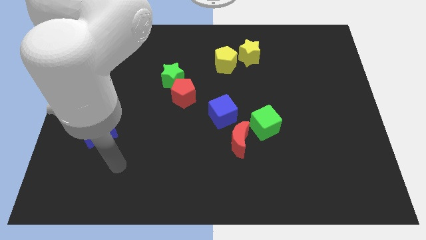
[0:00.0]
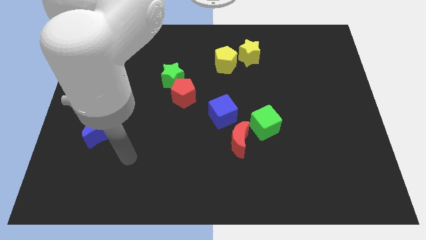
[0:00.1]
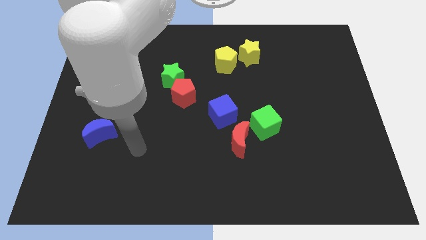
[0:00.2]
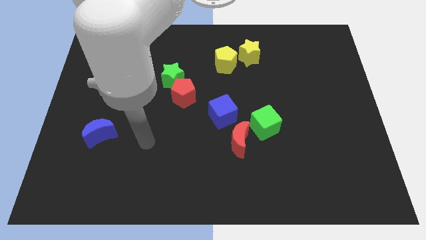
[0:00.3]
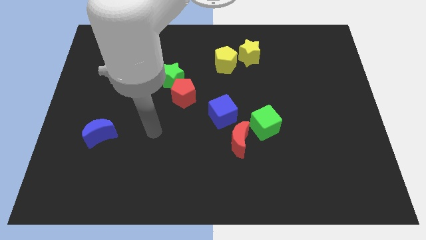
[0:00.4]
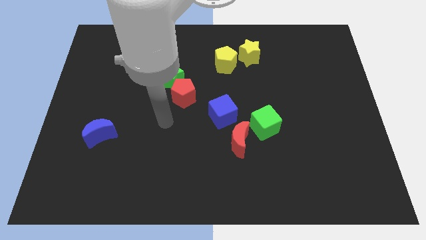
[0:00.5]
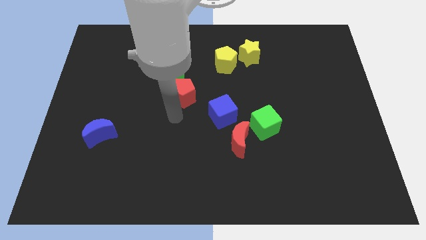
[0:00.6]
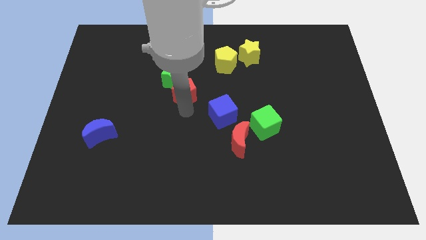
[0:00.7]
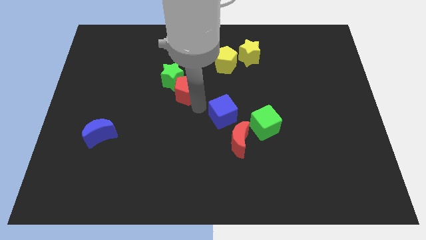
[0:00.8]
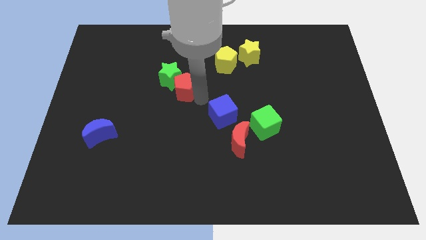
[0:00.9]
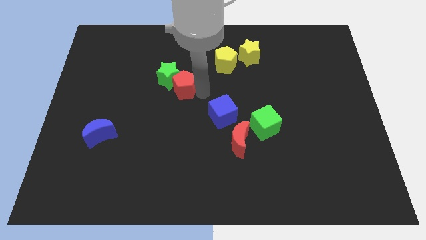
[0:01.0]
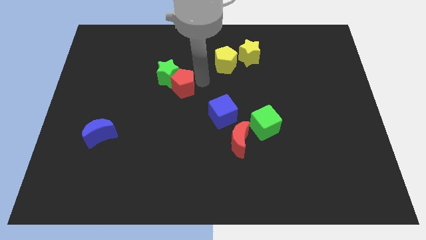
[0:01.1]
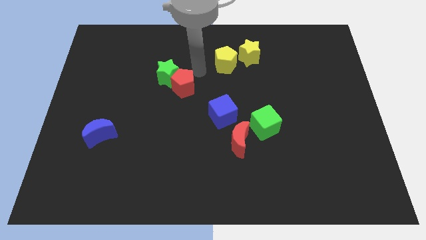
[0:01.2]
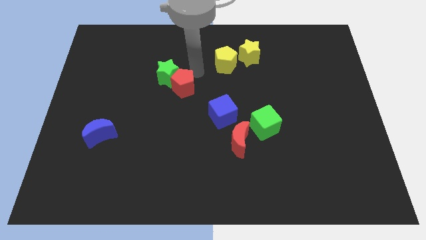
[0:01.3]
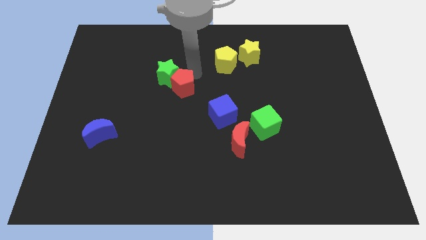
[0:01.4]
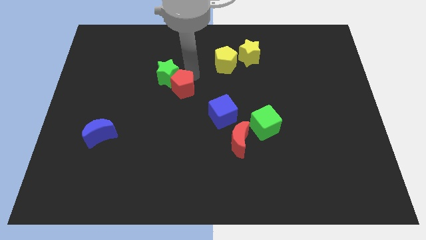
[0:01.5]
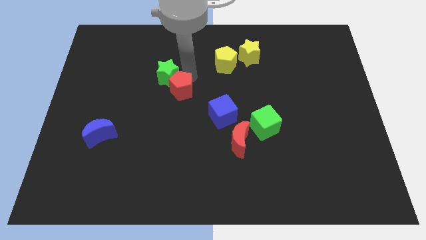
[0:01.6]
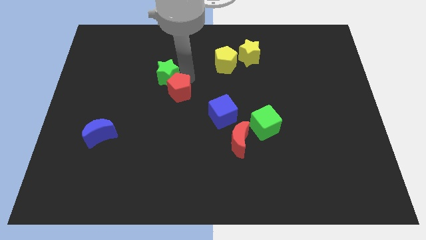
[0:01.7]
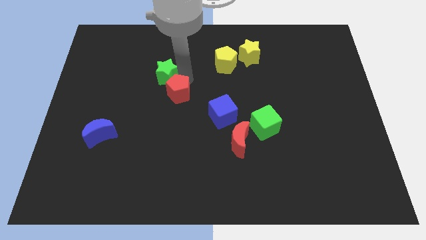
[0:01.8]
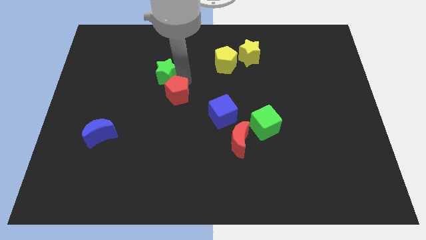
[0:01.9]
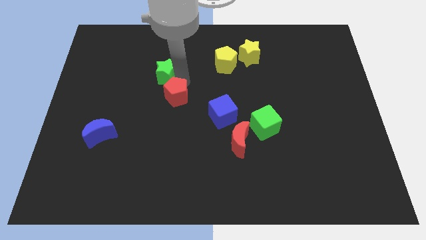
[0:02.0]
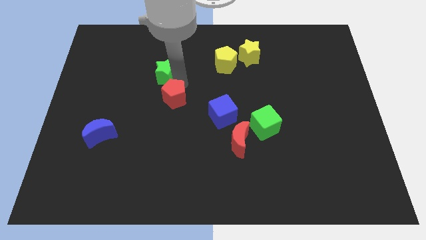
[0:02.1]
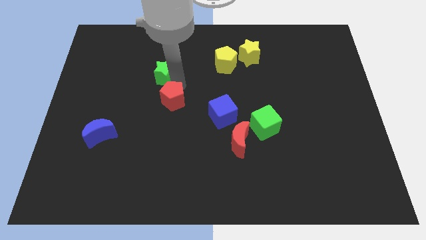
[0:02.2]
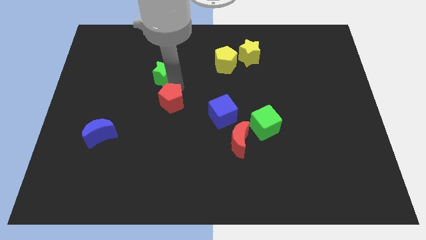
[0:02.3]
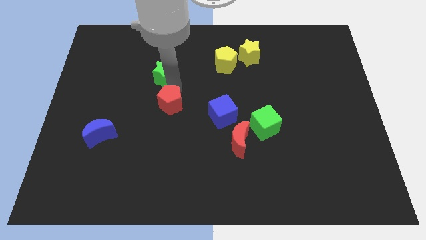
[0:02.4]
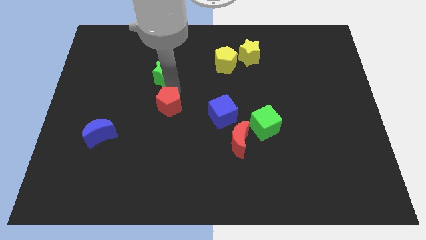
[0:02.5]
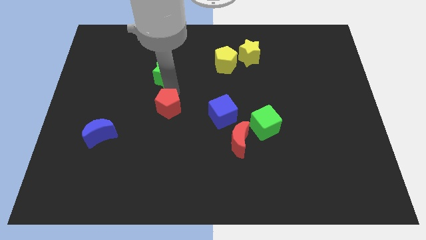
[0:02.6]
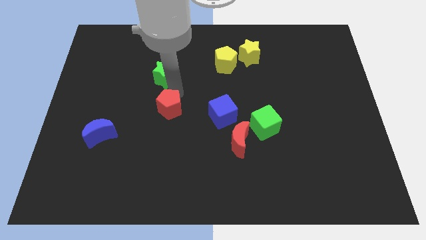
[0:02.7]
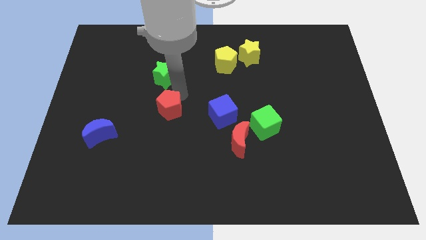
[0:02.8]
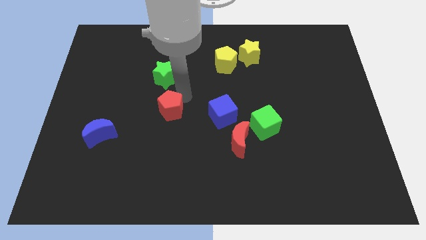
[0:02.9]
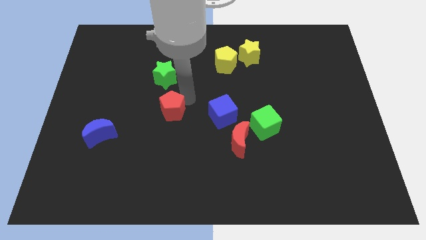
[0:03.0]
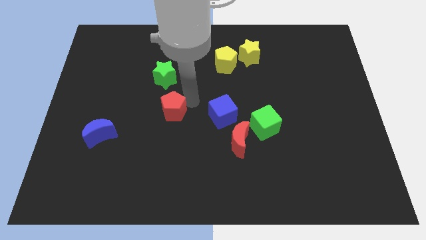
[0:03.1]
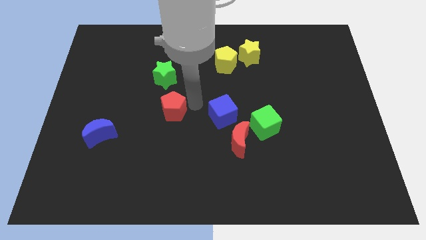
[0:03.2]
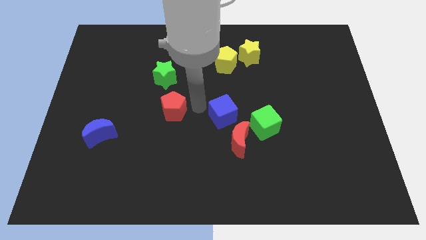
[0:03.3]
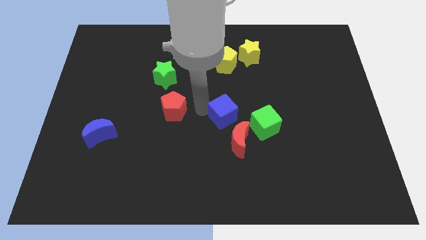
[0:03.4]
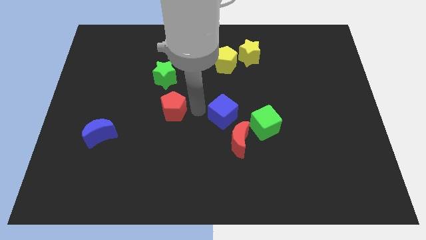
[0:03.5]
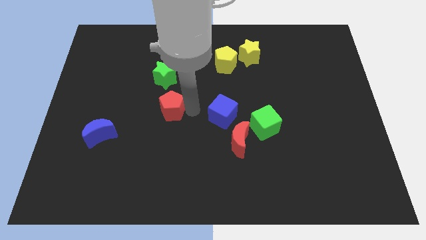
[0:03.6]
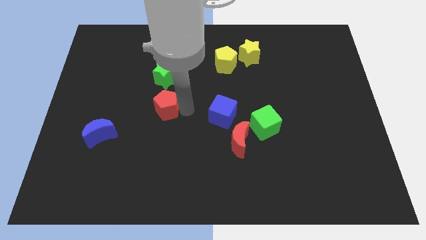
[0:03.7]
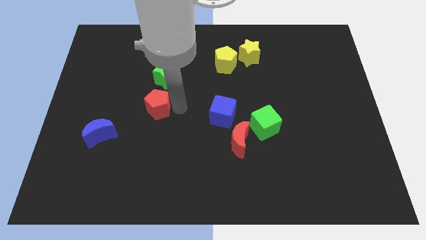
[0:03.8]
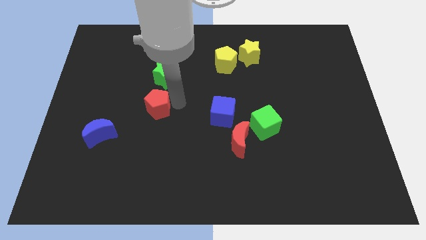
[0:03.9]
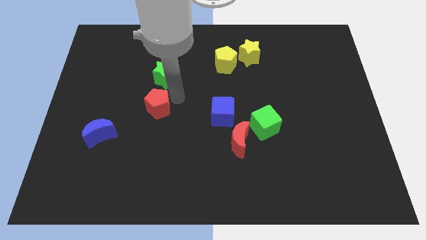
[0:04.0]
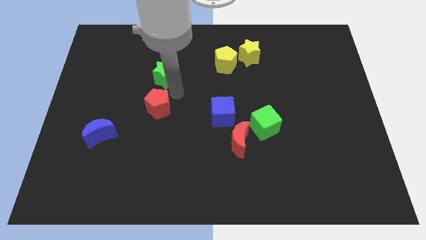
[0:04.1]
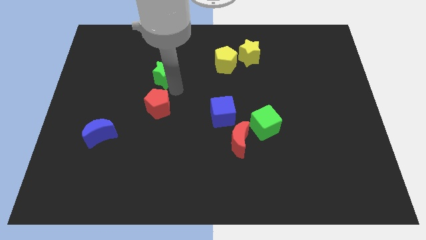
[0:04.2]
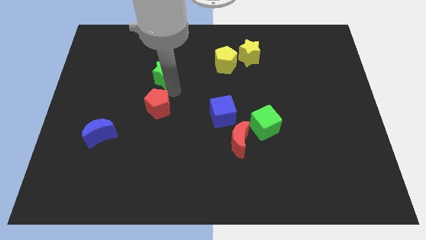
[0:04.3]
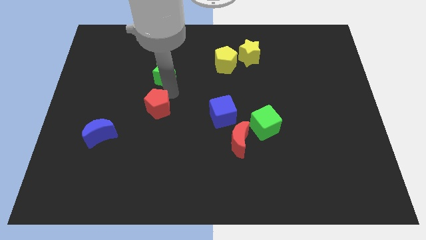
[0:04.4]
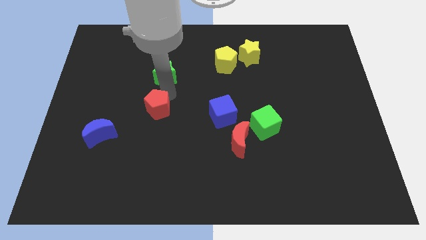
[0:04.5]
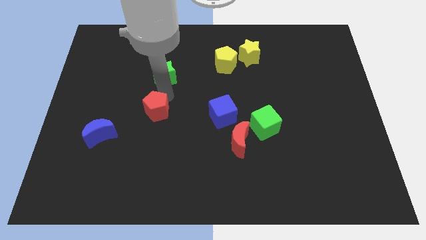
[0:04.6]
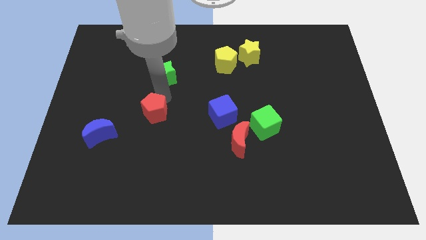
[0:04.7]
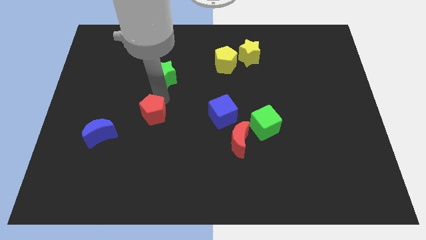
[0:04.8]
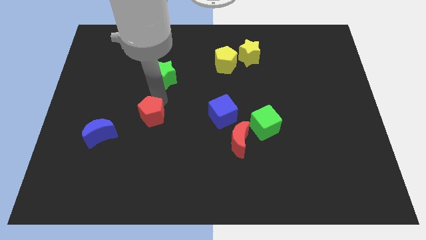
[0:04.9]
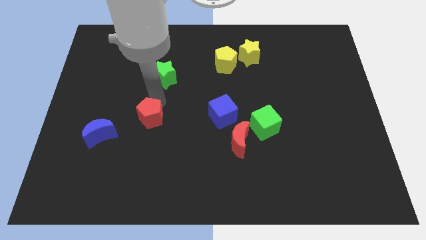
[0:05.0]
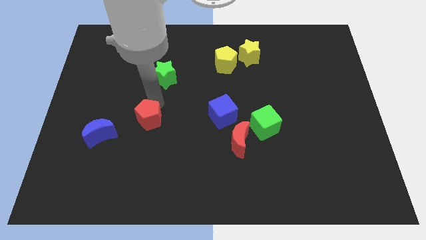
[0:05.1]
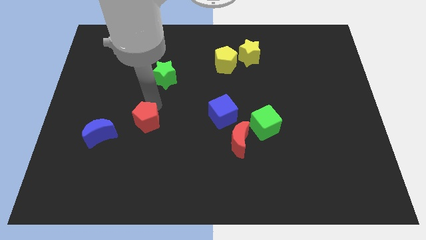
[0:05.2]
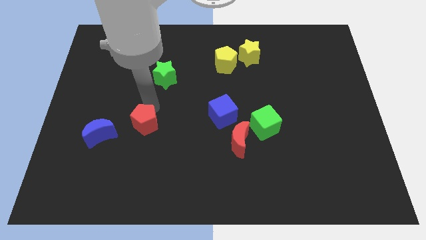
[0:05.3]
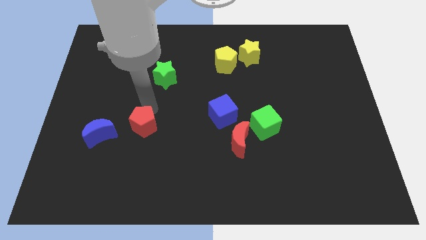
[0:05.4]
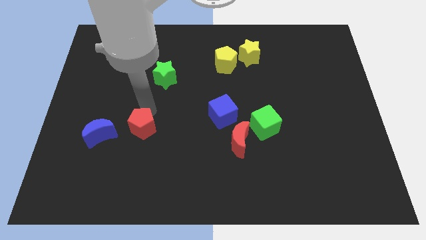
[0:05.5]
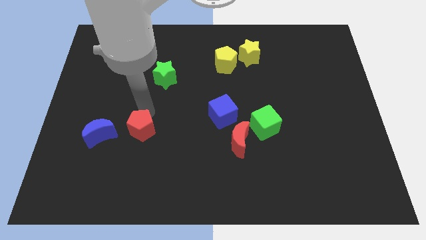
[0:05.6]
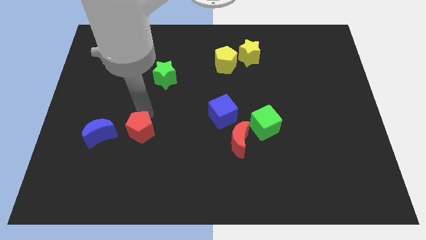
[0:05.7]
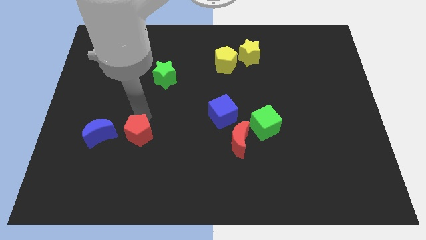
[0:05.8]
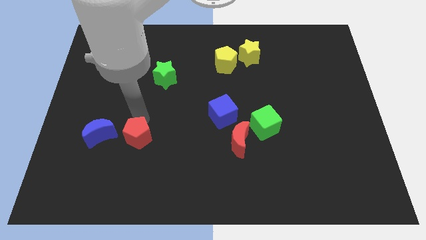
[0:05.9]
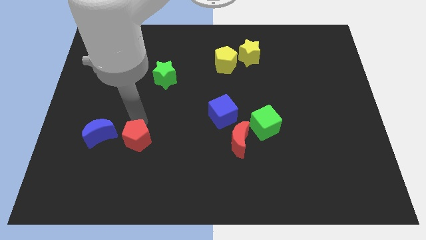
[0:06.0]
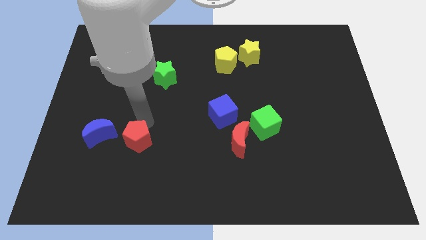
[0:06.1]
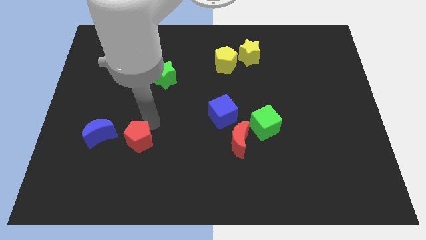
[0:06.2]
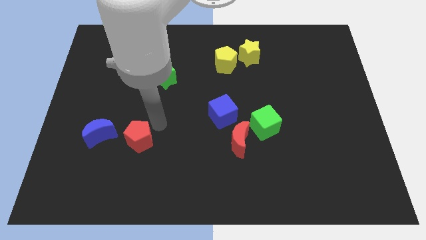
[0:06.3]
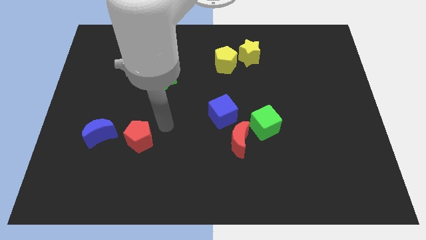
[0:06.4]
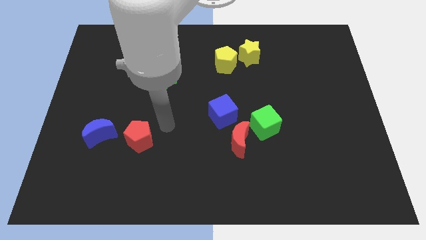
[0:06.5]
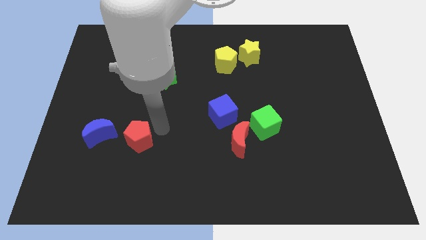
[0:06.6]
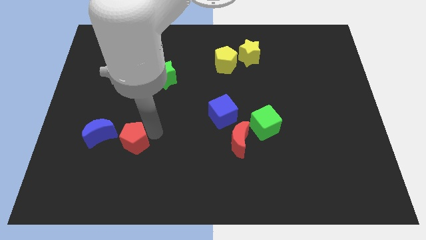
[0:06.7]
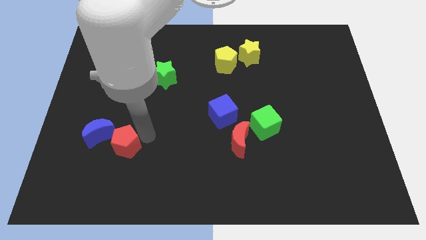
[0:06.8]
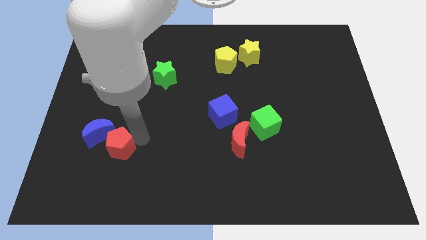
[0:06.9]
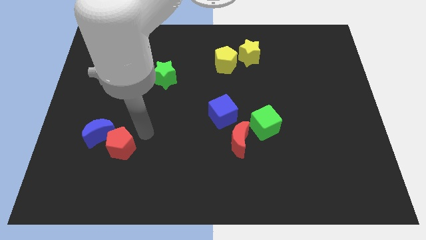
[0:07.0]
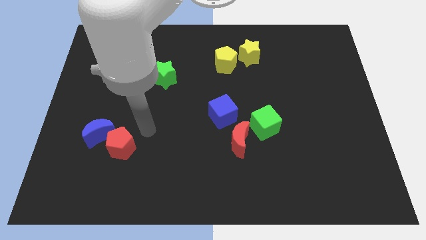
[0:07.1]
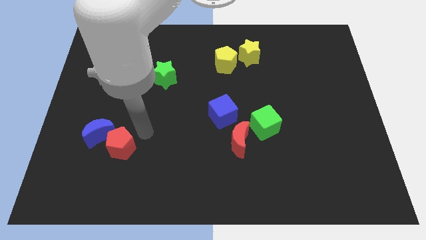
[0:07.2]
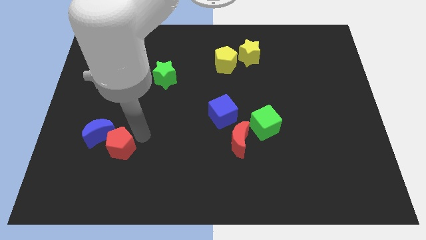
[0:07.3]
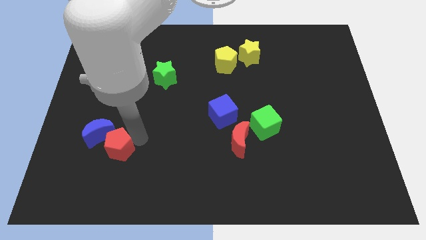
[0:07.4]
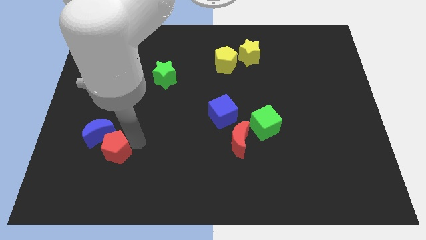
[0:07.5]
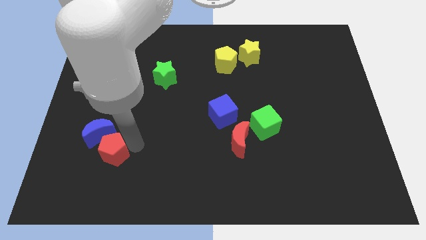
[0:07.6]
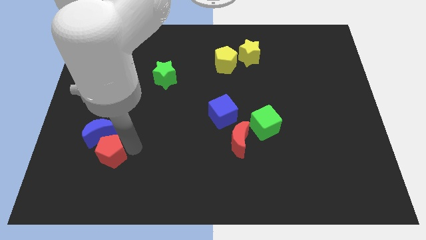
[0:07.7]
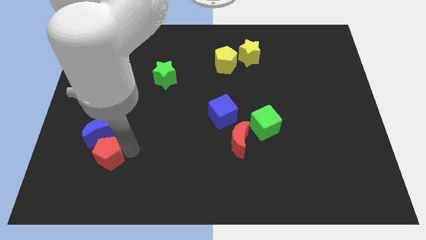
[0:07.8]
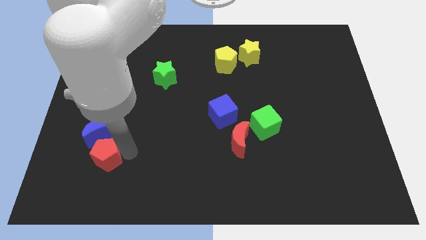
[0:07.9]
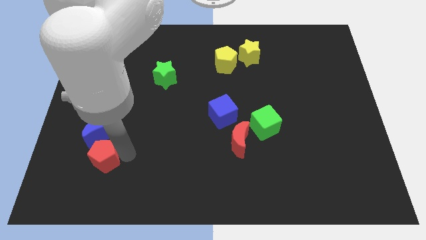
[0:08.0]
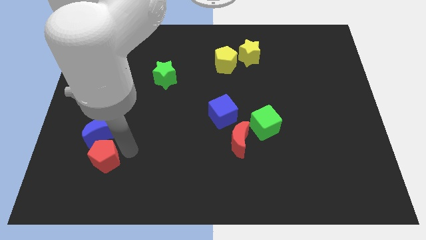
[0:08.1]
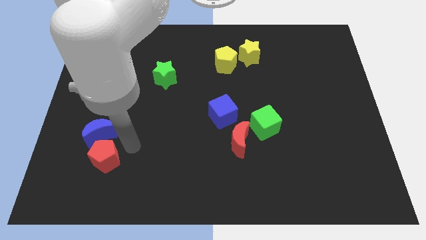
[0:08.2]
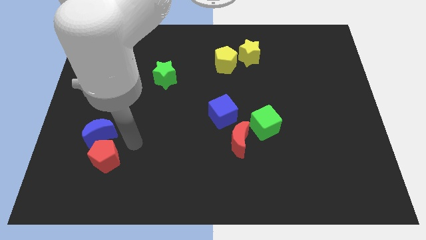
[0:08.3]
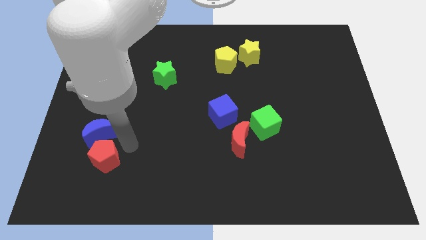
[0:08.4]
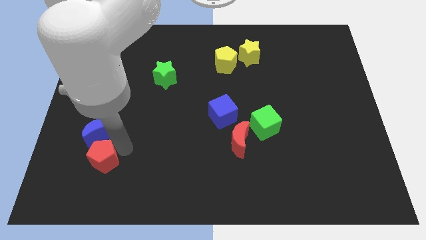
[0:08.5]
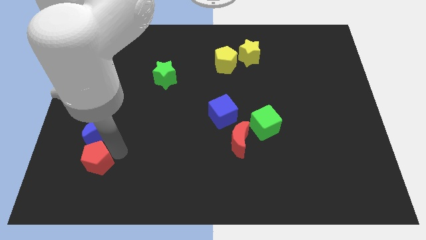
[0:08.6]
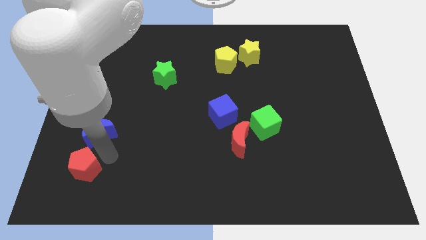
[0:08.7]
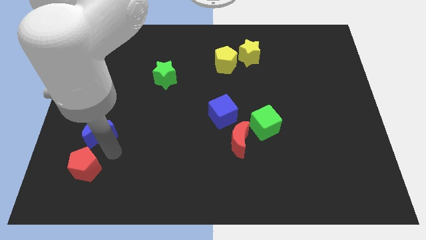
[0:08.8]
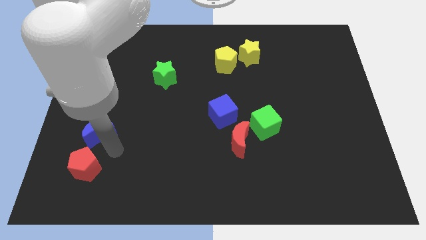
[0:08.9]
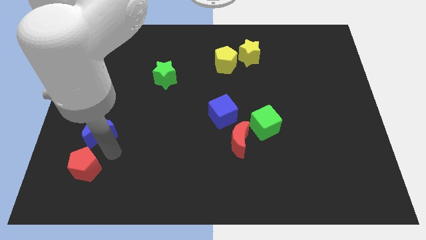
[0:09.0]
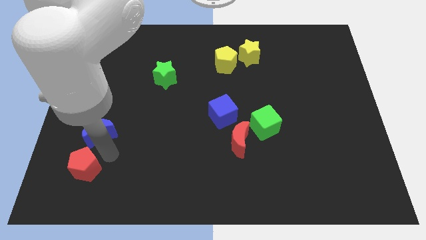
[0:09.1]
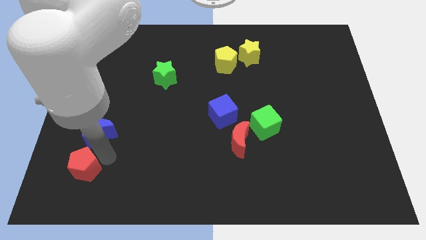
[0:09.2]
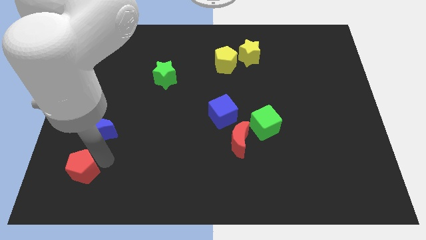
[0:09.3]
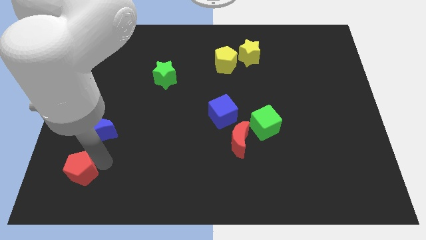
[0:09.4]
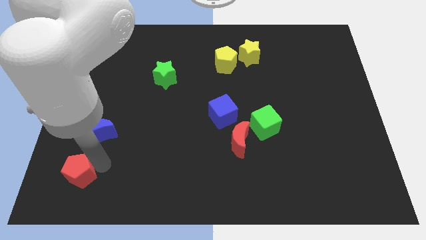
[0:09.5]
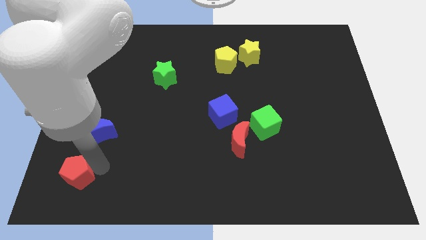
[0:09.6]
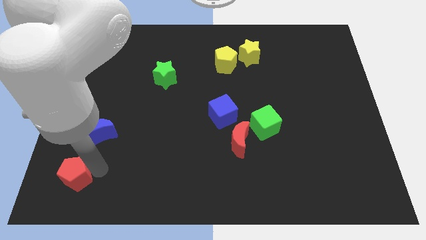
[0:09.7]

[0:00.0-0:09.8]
slide the red pentagon to the bottom left corner
